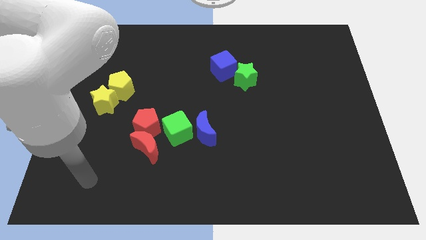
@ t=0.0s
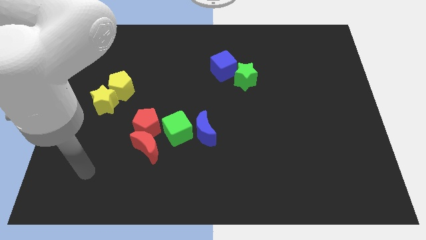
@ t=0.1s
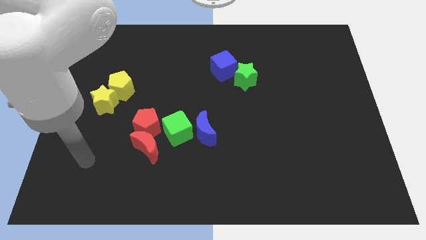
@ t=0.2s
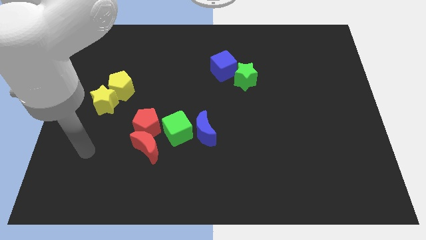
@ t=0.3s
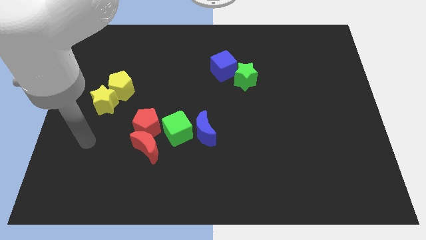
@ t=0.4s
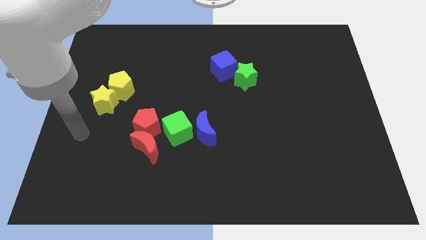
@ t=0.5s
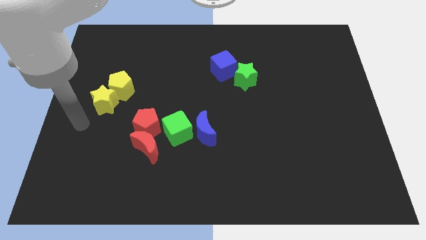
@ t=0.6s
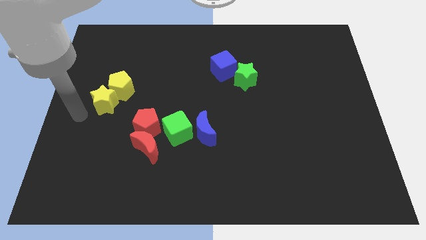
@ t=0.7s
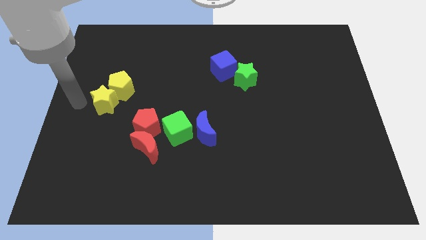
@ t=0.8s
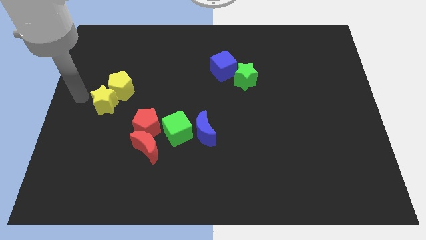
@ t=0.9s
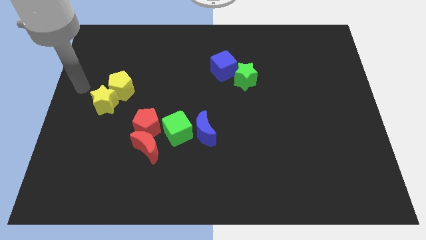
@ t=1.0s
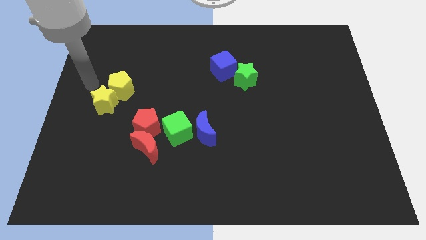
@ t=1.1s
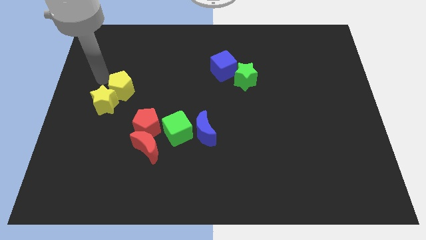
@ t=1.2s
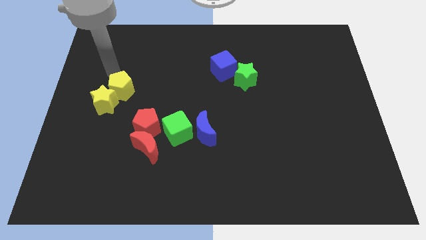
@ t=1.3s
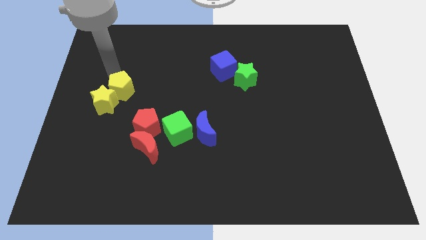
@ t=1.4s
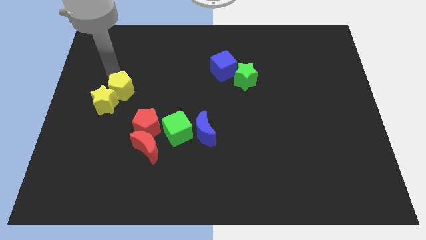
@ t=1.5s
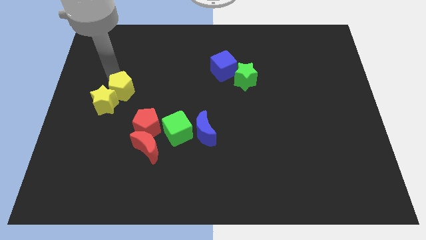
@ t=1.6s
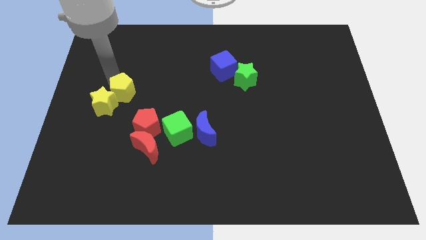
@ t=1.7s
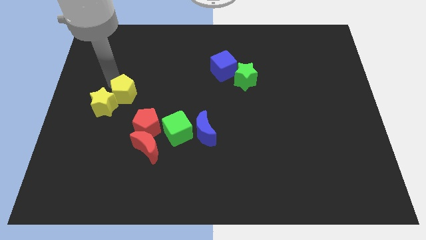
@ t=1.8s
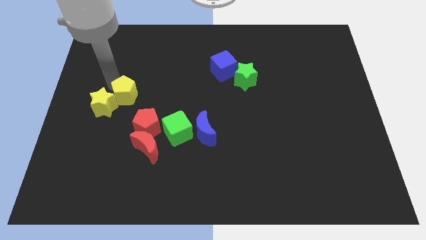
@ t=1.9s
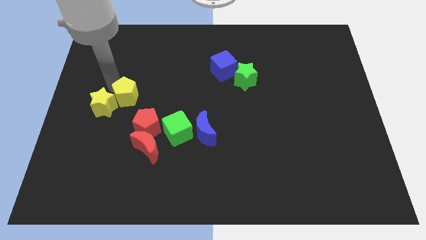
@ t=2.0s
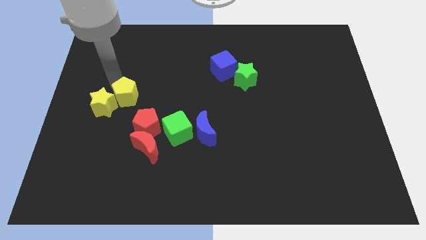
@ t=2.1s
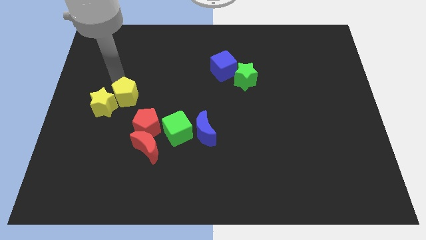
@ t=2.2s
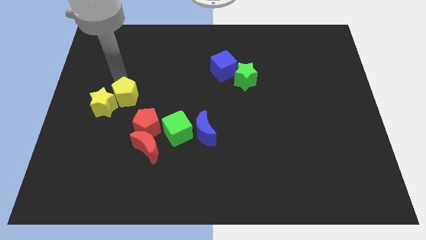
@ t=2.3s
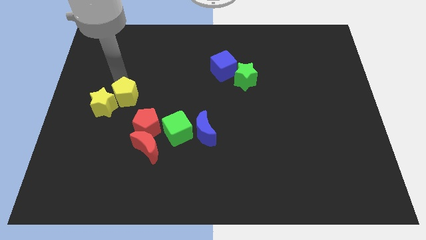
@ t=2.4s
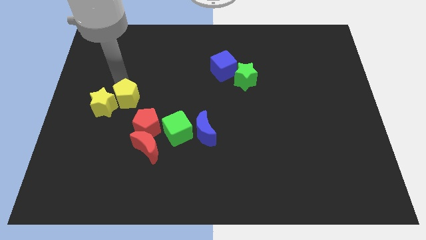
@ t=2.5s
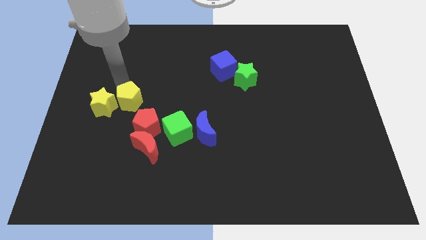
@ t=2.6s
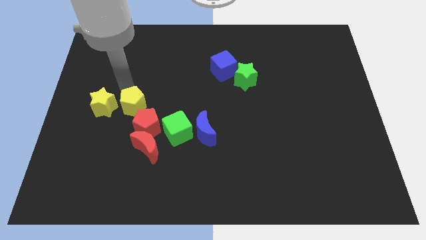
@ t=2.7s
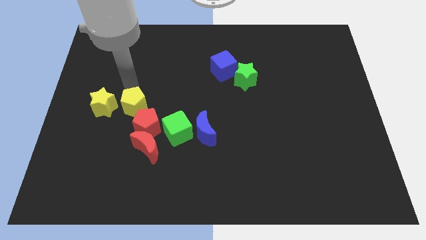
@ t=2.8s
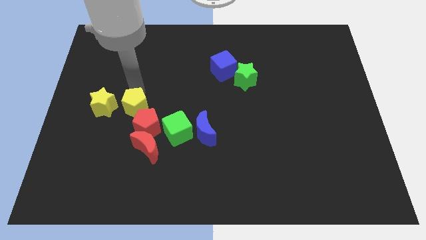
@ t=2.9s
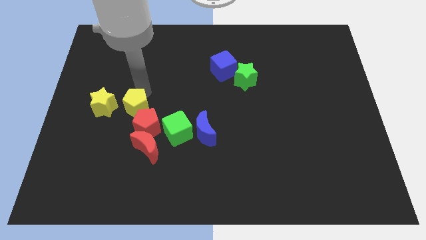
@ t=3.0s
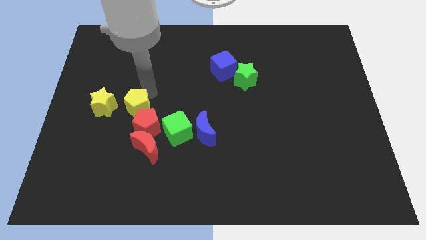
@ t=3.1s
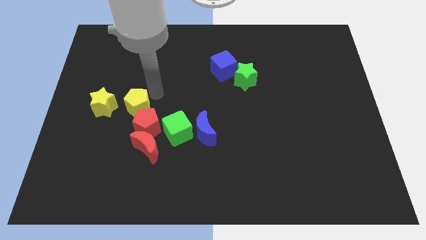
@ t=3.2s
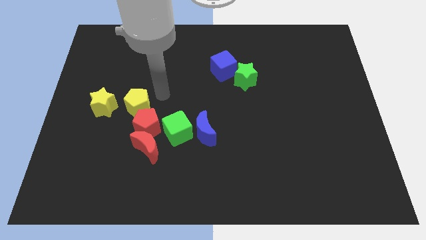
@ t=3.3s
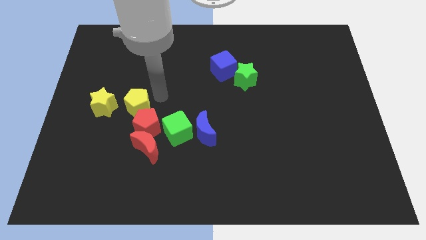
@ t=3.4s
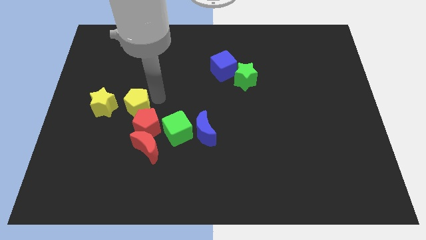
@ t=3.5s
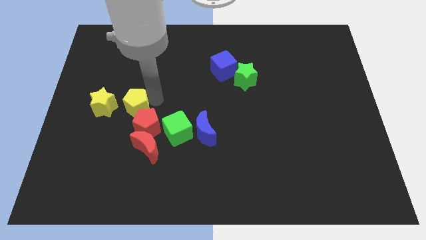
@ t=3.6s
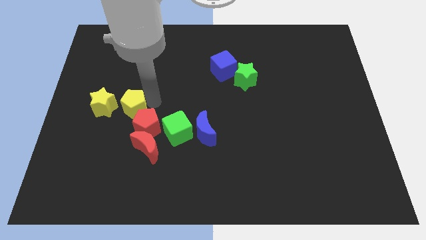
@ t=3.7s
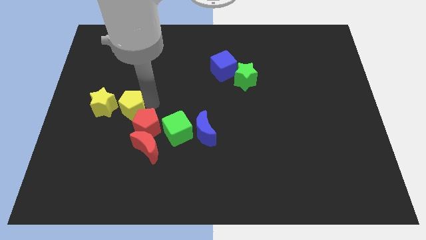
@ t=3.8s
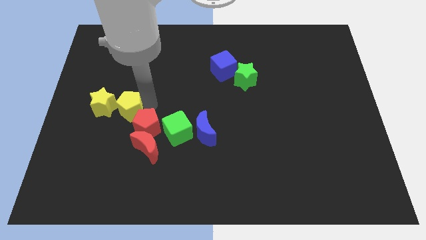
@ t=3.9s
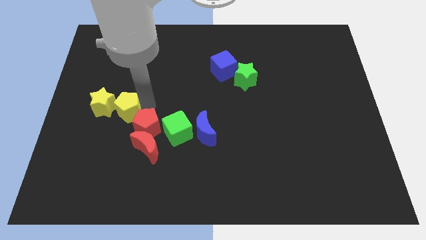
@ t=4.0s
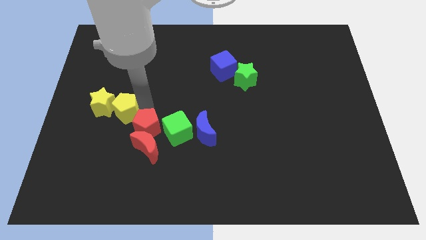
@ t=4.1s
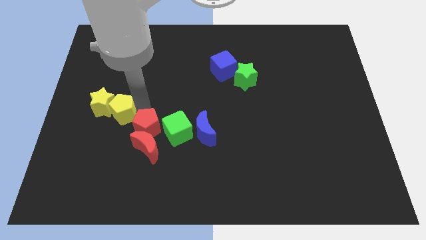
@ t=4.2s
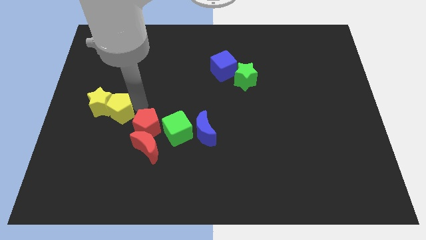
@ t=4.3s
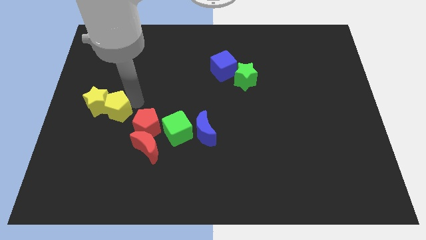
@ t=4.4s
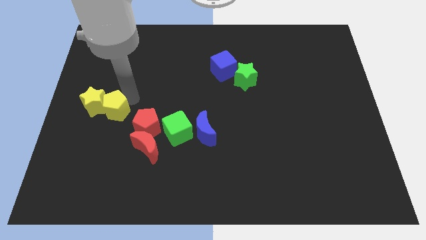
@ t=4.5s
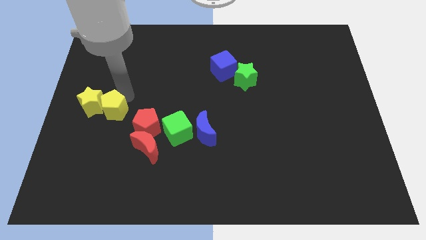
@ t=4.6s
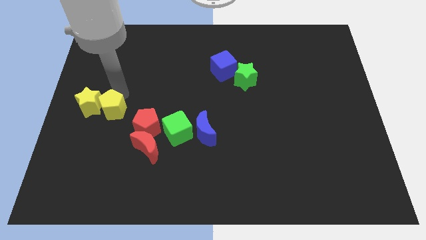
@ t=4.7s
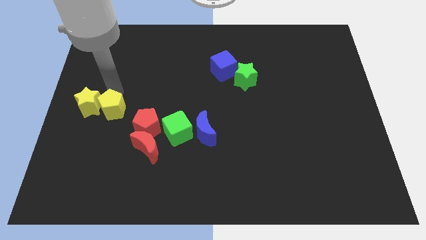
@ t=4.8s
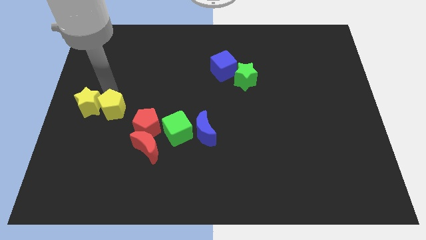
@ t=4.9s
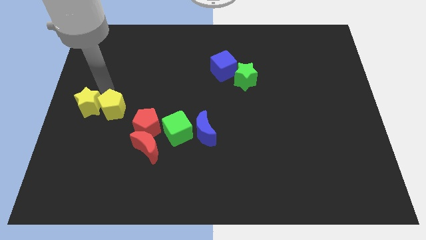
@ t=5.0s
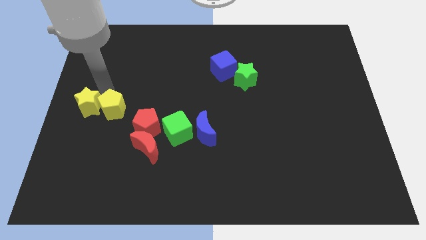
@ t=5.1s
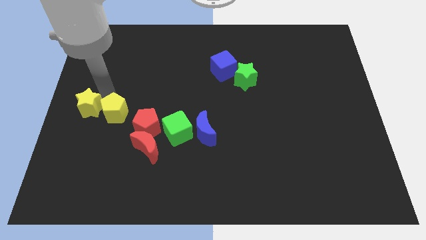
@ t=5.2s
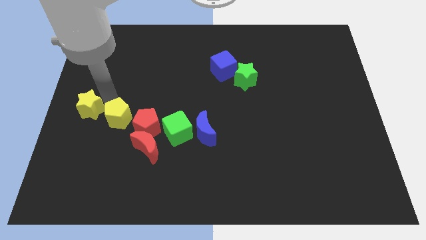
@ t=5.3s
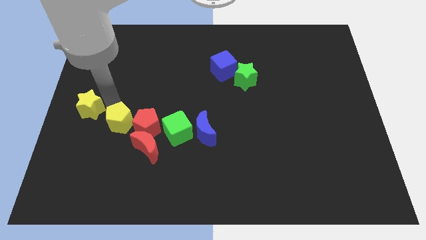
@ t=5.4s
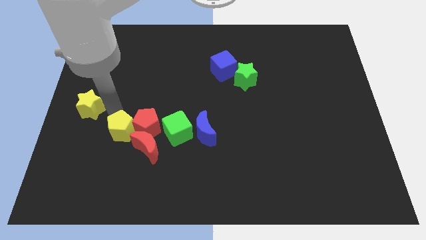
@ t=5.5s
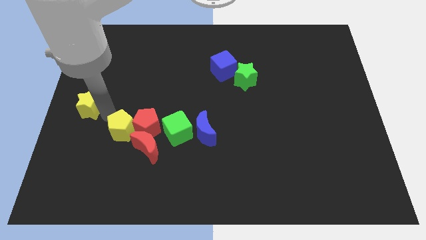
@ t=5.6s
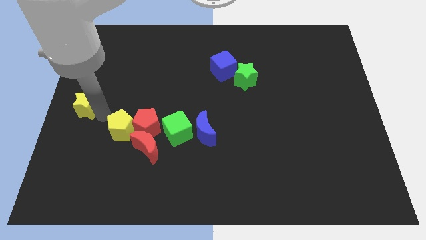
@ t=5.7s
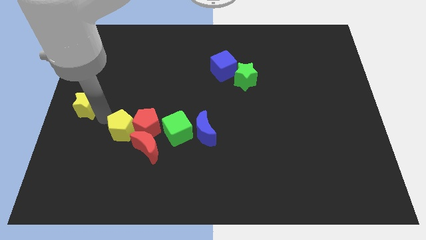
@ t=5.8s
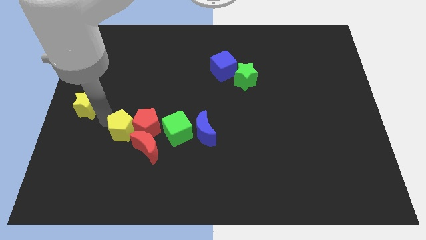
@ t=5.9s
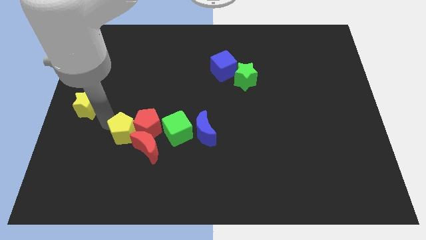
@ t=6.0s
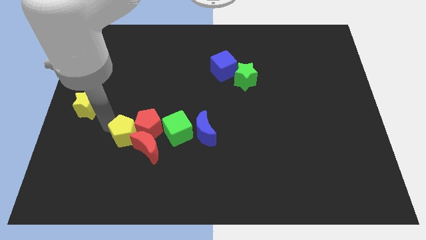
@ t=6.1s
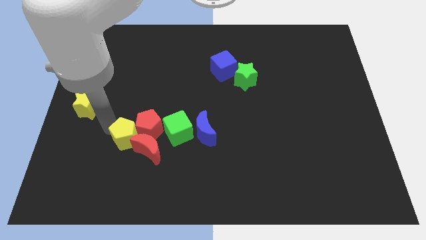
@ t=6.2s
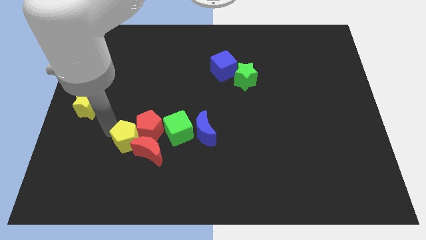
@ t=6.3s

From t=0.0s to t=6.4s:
push the yellow pentagon to the red moon
